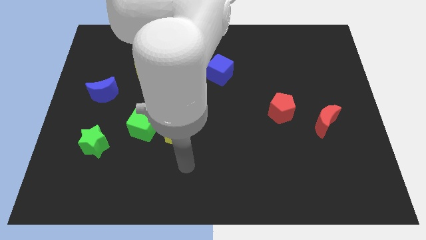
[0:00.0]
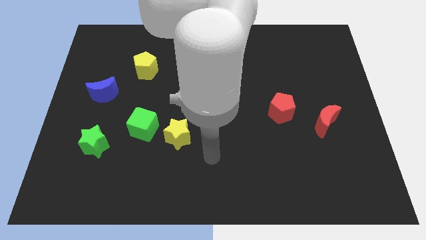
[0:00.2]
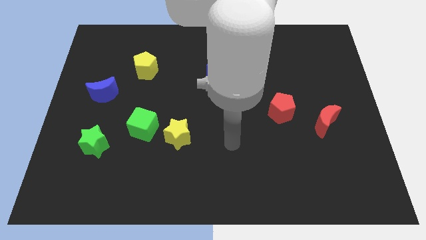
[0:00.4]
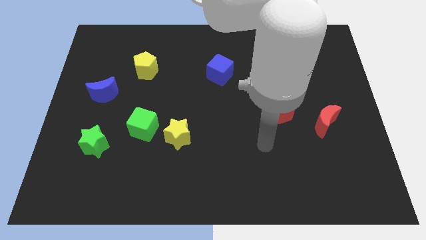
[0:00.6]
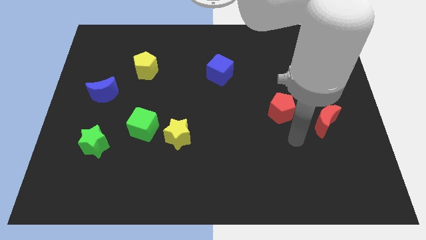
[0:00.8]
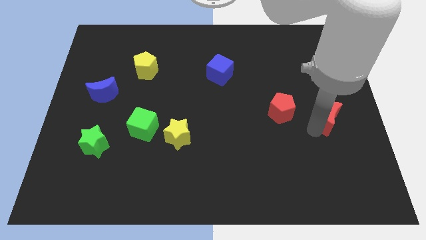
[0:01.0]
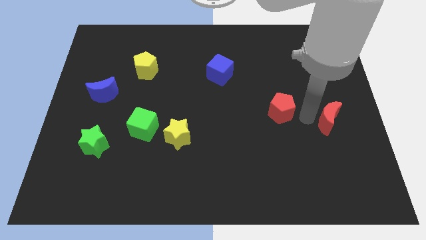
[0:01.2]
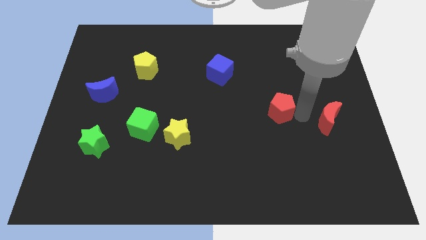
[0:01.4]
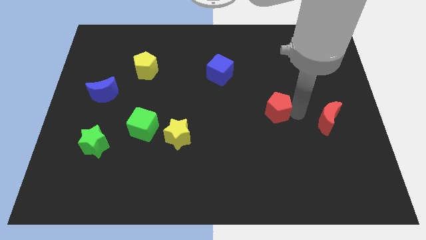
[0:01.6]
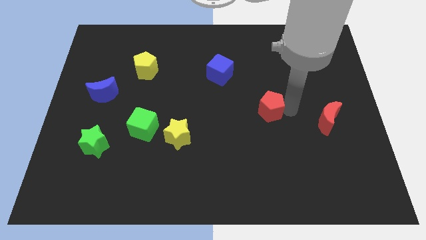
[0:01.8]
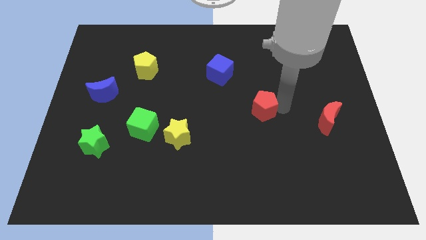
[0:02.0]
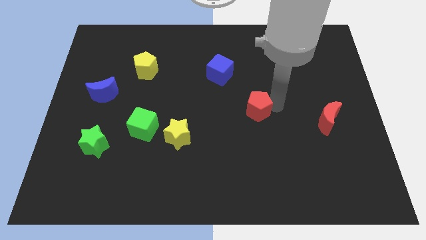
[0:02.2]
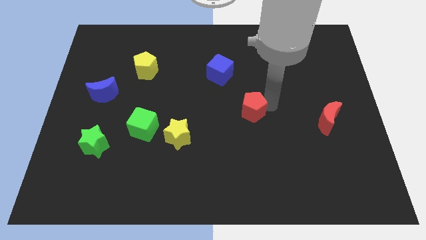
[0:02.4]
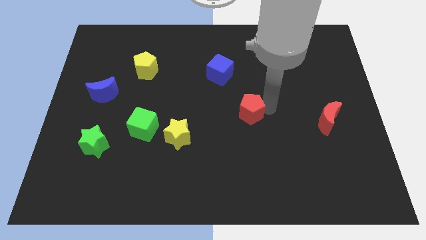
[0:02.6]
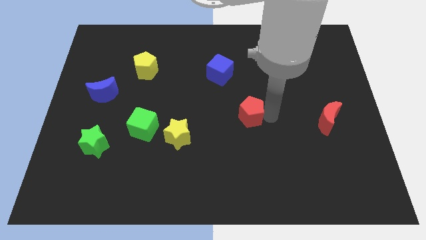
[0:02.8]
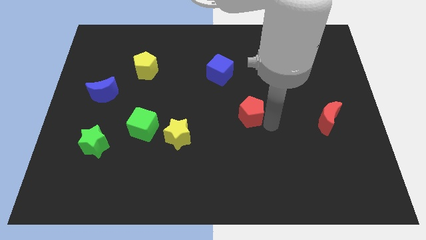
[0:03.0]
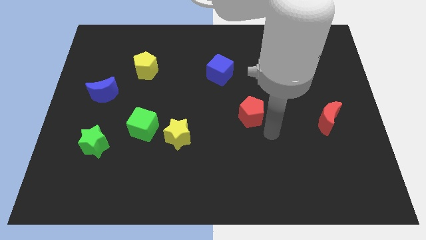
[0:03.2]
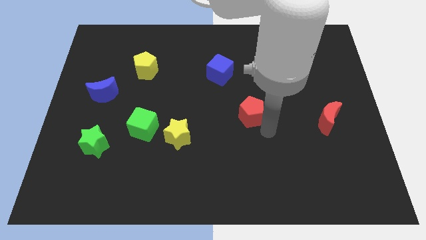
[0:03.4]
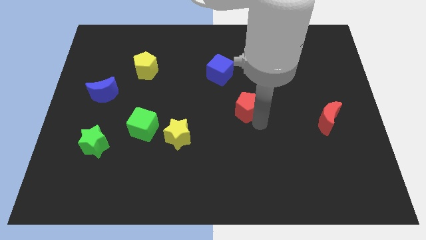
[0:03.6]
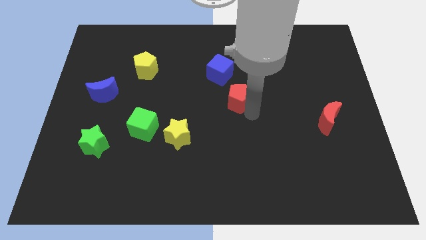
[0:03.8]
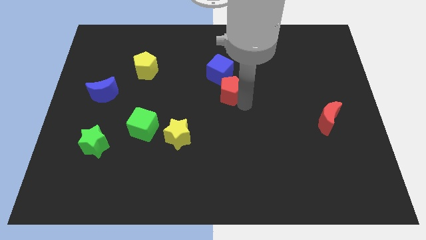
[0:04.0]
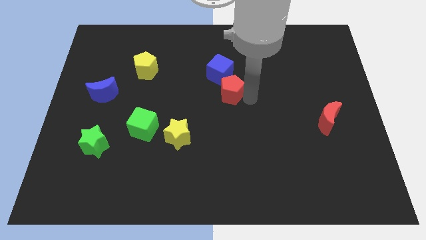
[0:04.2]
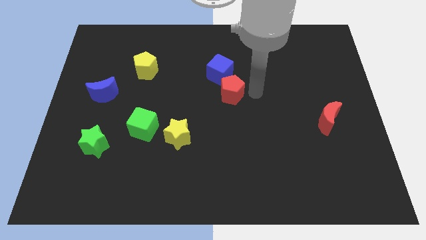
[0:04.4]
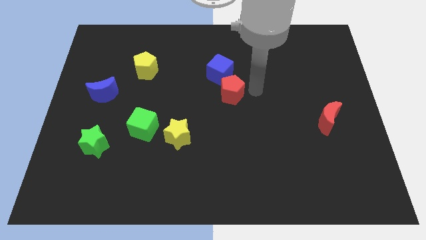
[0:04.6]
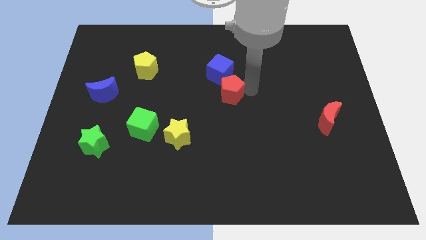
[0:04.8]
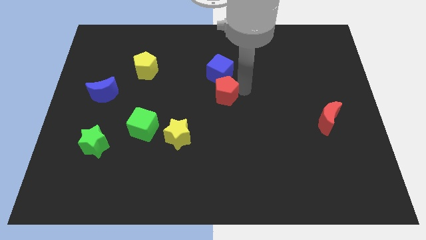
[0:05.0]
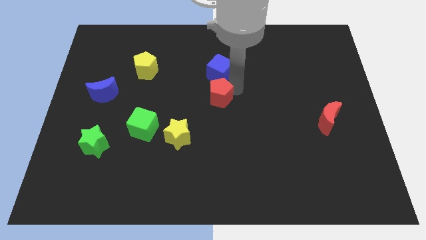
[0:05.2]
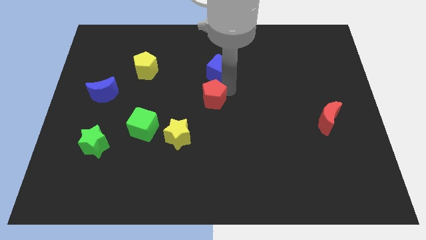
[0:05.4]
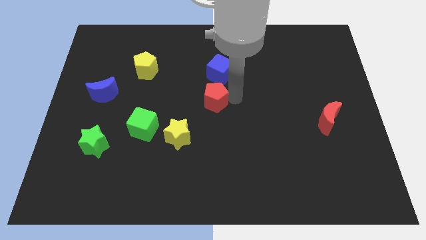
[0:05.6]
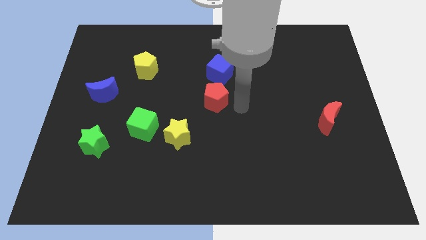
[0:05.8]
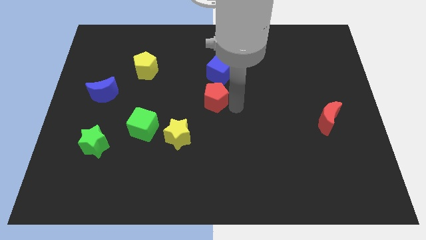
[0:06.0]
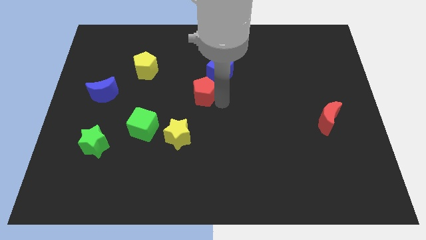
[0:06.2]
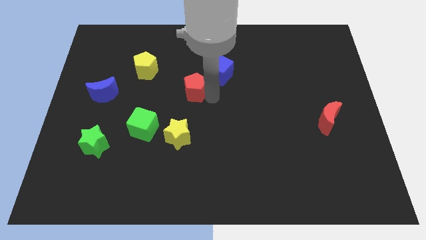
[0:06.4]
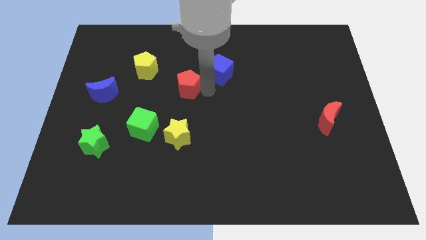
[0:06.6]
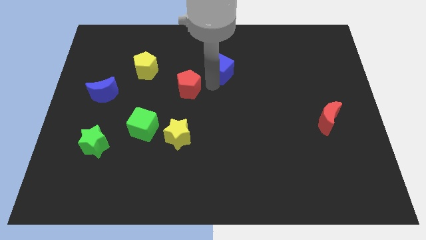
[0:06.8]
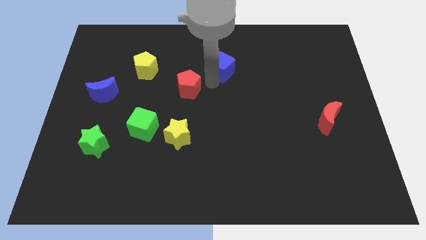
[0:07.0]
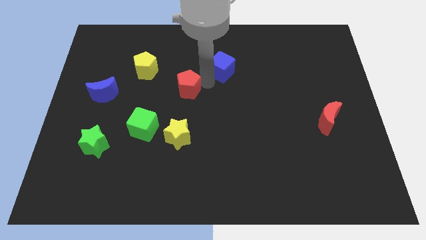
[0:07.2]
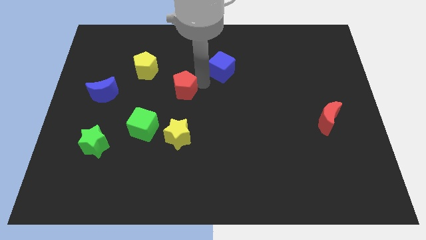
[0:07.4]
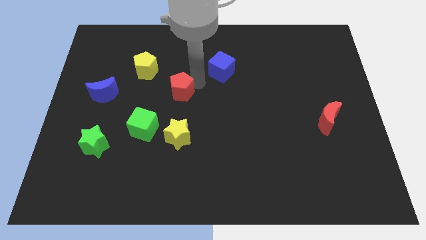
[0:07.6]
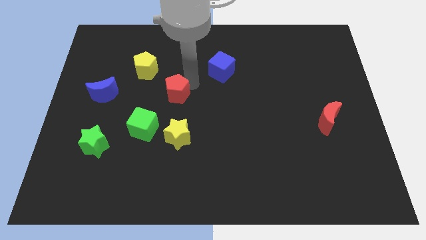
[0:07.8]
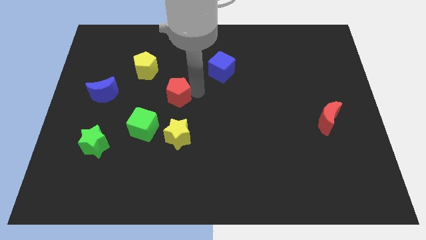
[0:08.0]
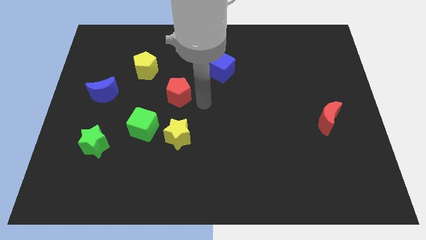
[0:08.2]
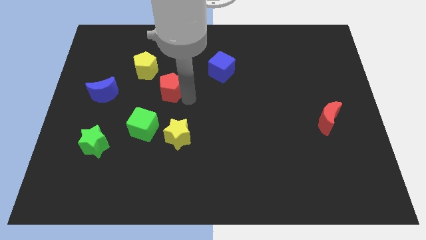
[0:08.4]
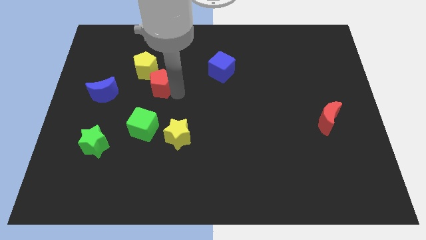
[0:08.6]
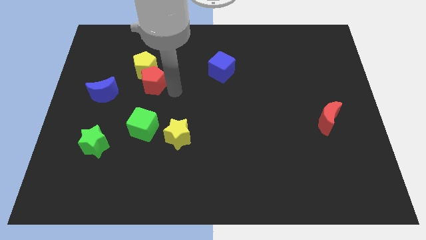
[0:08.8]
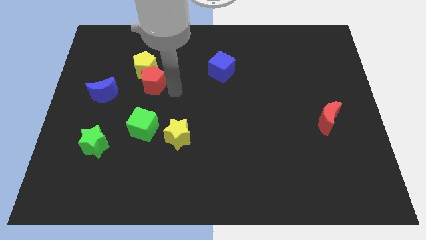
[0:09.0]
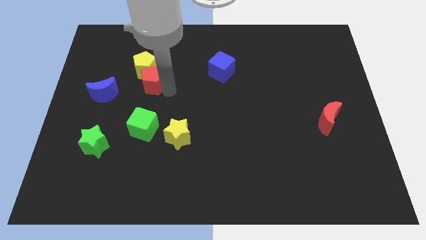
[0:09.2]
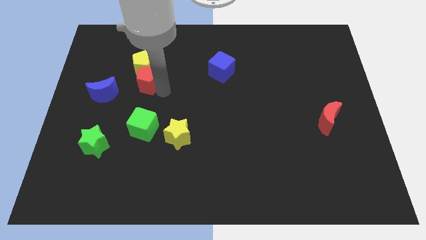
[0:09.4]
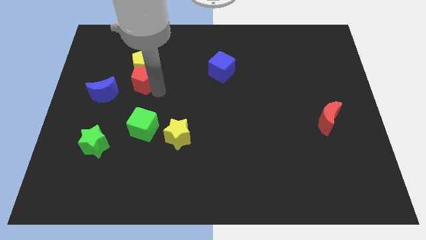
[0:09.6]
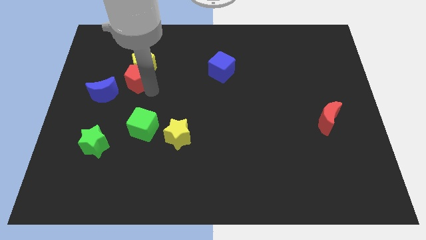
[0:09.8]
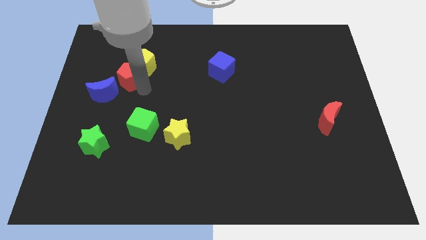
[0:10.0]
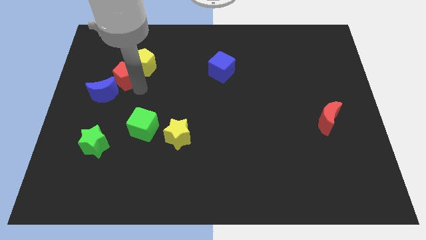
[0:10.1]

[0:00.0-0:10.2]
slide the red pentagon to the top side of the blue moon

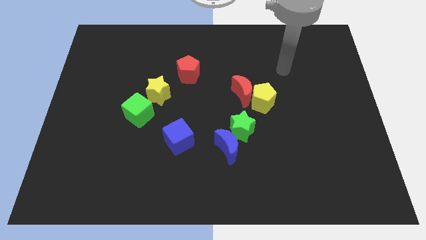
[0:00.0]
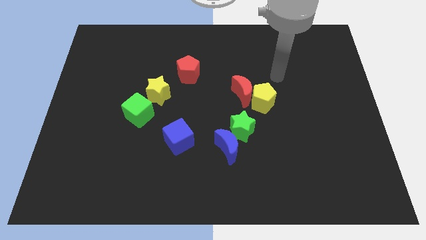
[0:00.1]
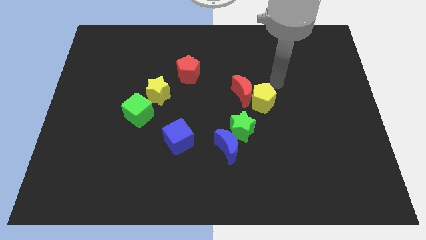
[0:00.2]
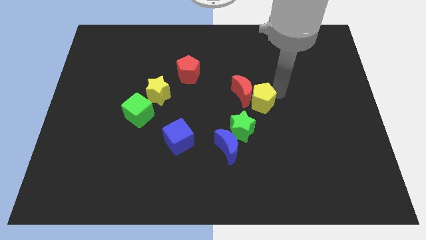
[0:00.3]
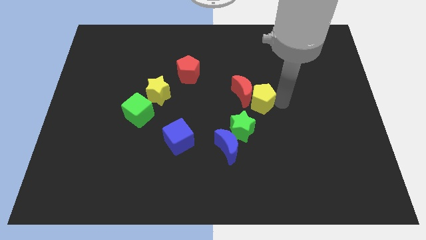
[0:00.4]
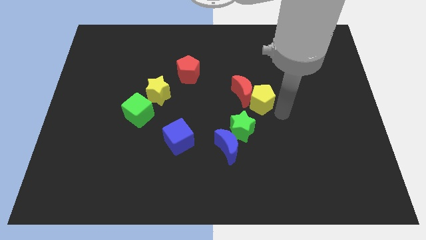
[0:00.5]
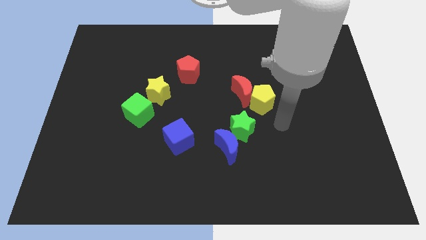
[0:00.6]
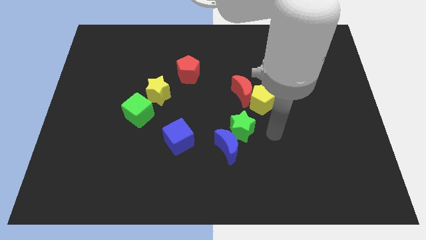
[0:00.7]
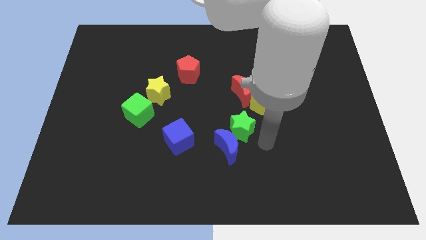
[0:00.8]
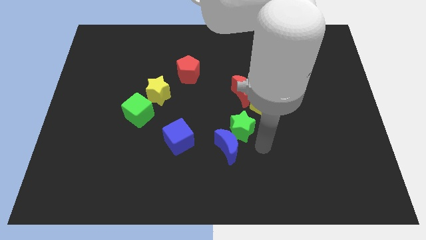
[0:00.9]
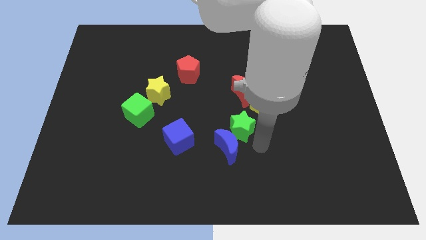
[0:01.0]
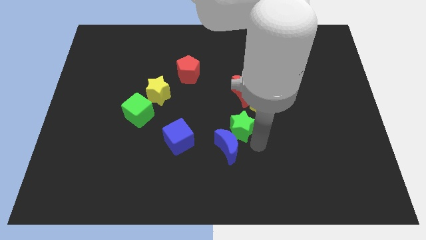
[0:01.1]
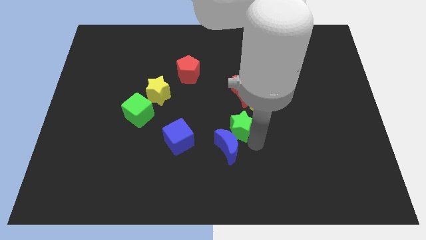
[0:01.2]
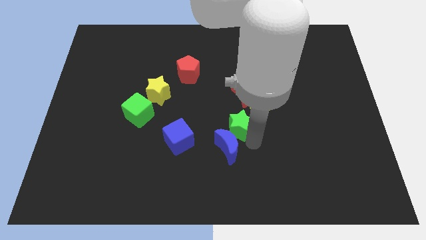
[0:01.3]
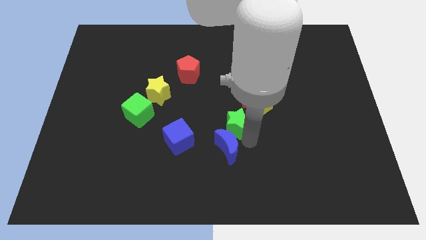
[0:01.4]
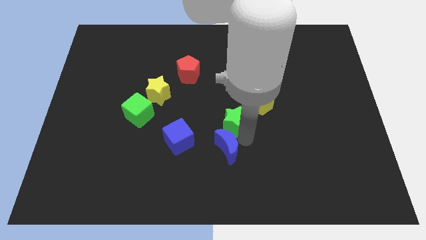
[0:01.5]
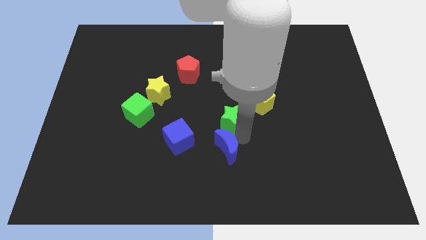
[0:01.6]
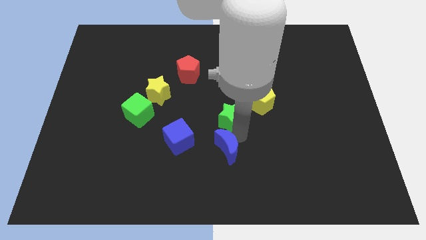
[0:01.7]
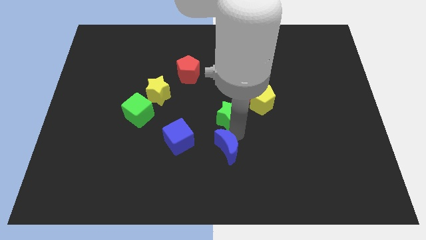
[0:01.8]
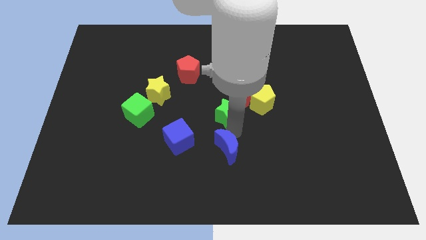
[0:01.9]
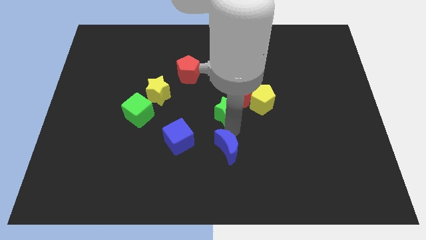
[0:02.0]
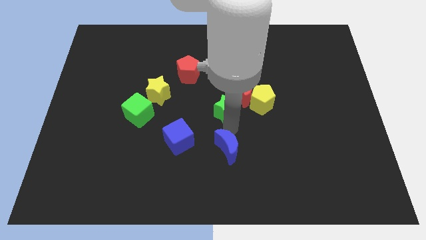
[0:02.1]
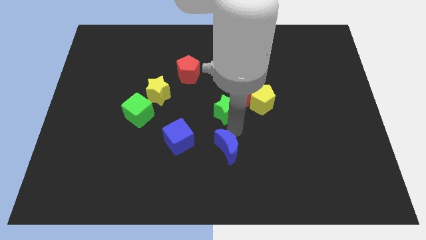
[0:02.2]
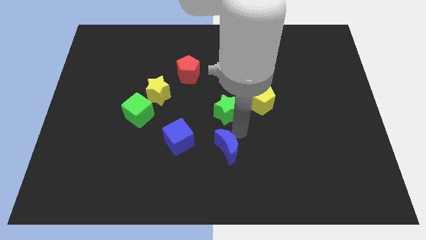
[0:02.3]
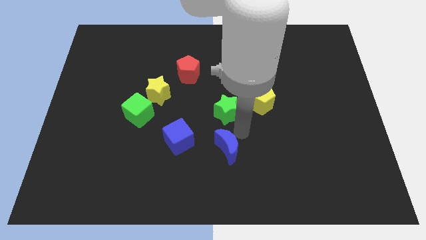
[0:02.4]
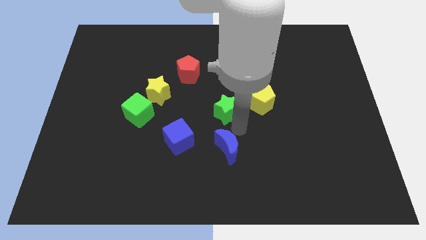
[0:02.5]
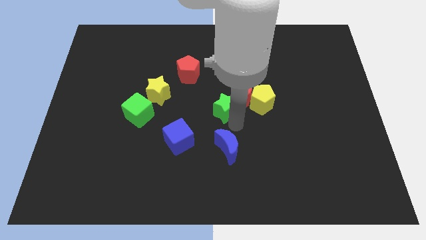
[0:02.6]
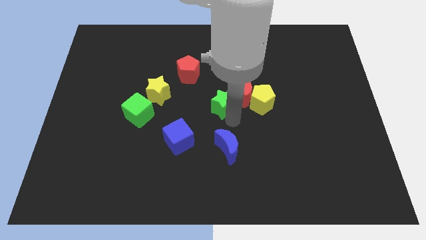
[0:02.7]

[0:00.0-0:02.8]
push the green star left of the red moon
